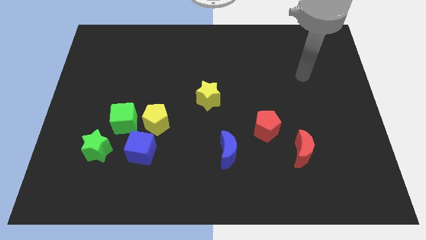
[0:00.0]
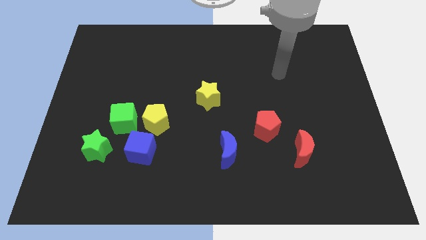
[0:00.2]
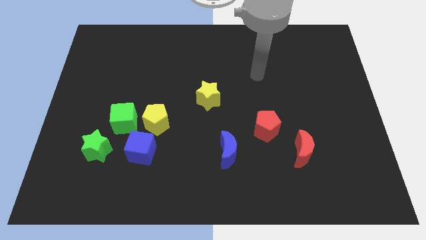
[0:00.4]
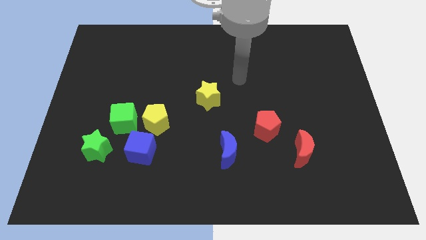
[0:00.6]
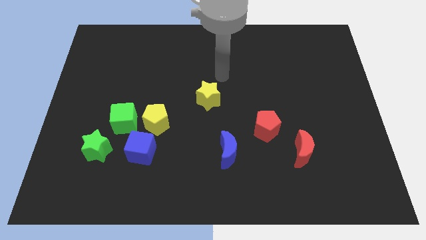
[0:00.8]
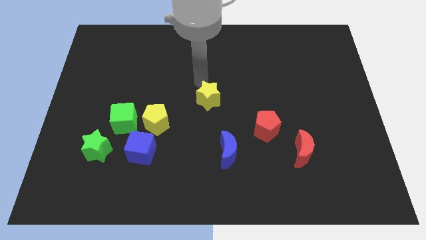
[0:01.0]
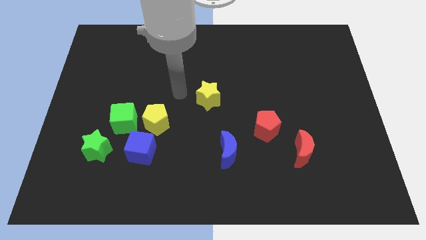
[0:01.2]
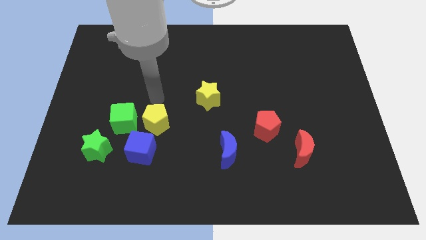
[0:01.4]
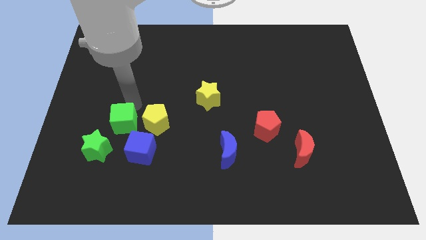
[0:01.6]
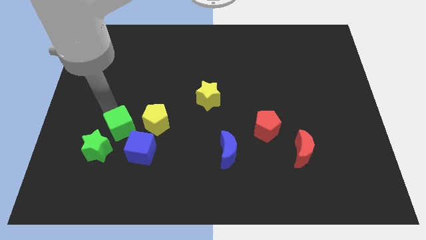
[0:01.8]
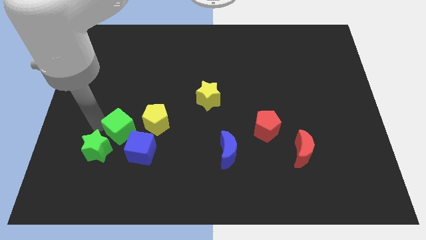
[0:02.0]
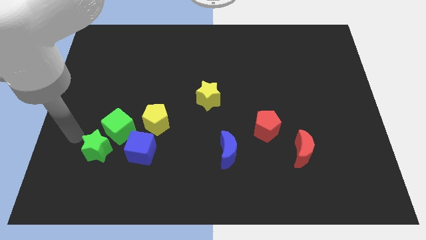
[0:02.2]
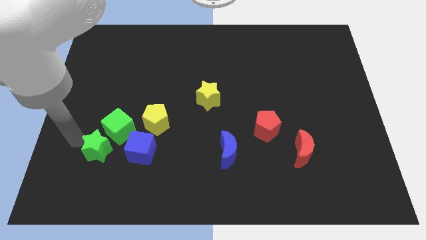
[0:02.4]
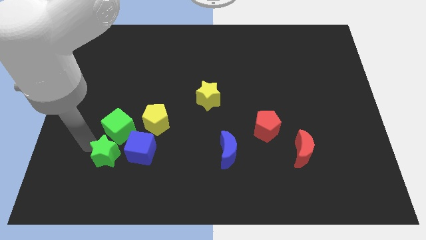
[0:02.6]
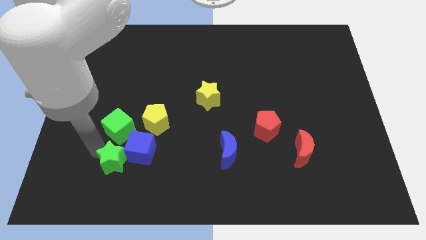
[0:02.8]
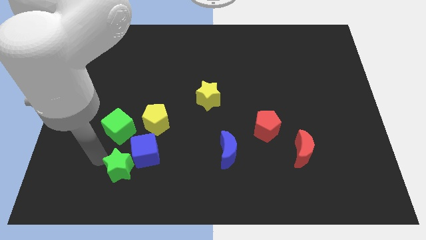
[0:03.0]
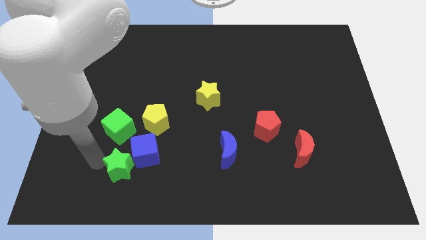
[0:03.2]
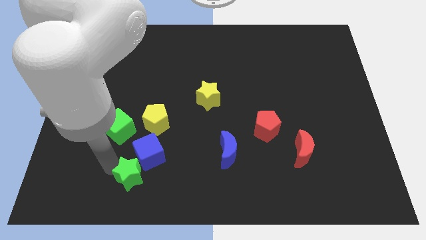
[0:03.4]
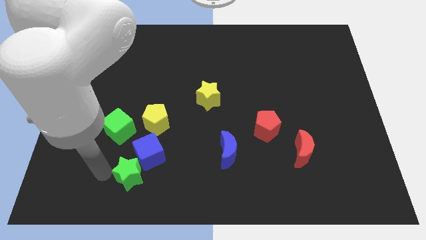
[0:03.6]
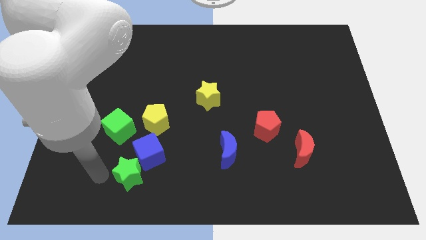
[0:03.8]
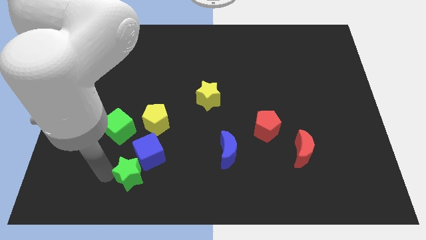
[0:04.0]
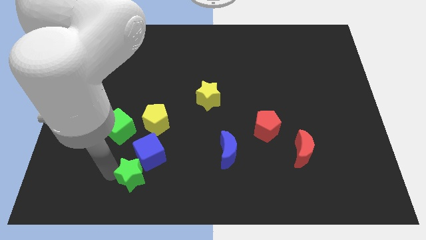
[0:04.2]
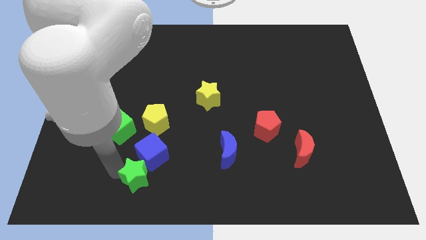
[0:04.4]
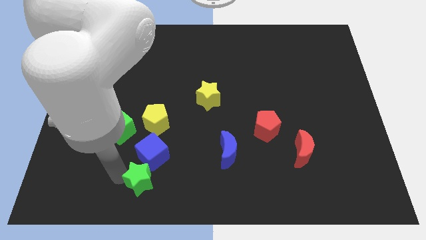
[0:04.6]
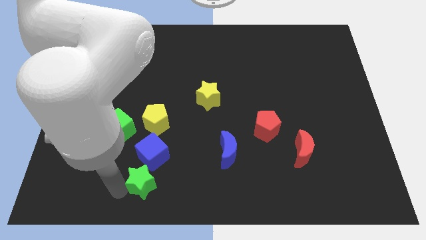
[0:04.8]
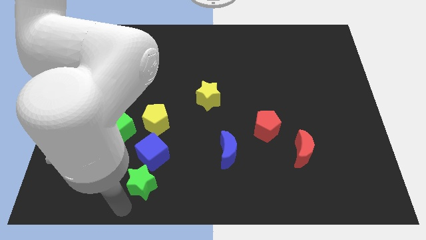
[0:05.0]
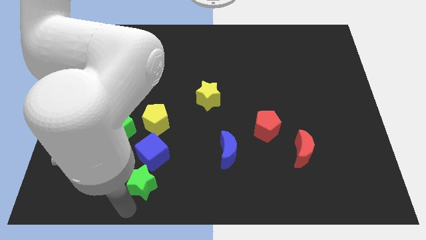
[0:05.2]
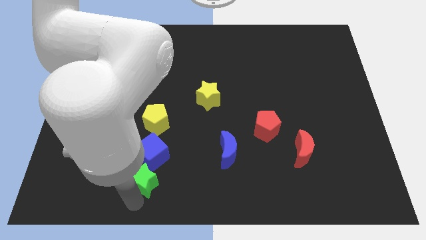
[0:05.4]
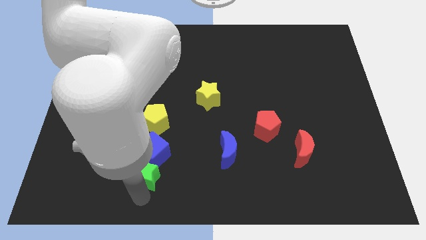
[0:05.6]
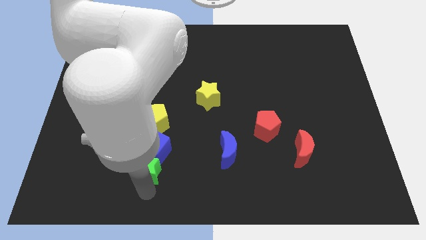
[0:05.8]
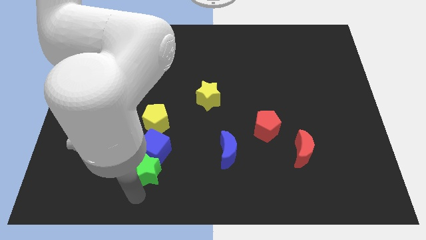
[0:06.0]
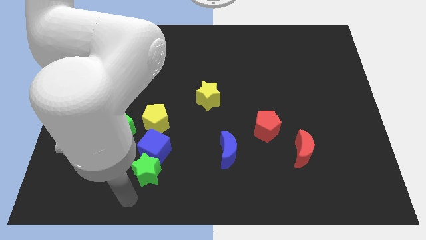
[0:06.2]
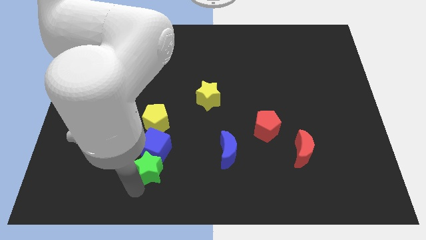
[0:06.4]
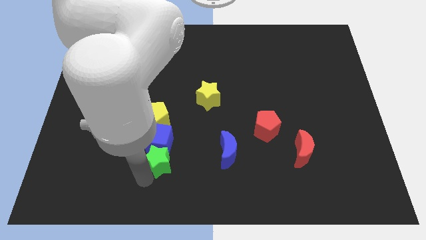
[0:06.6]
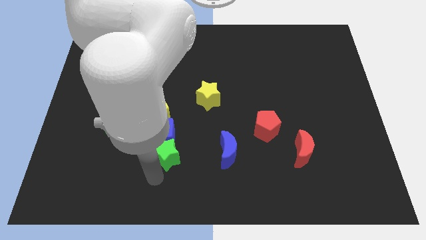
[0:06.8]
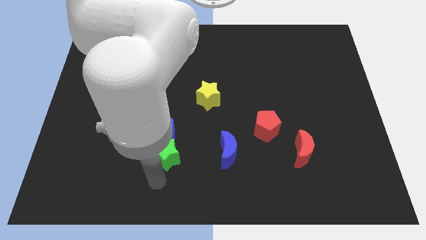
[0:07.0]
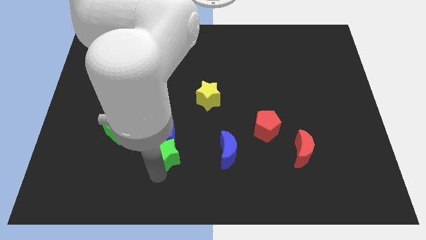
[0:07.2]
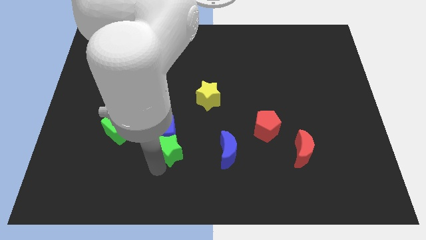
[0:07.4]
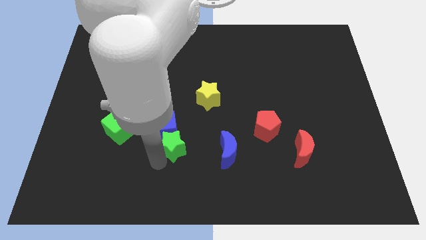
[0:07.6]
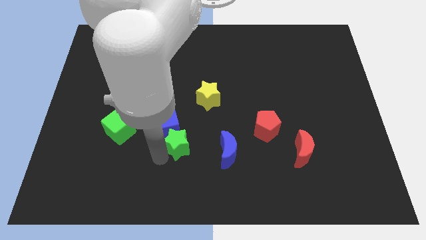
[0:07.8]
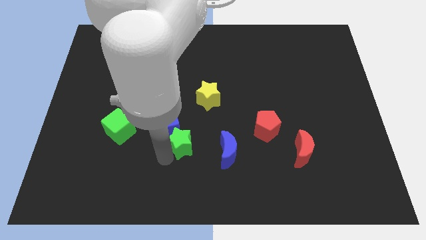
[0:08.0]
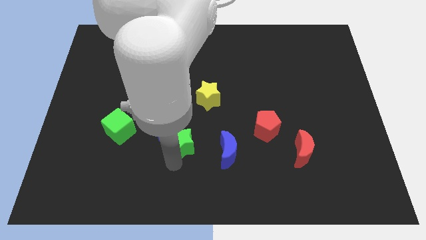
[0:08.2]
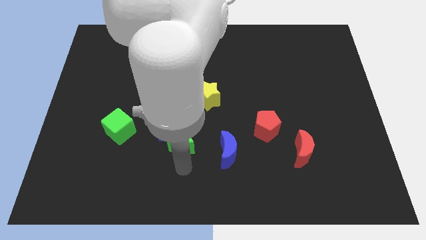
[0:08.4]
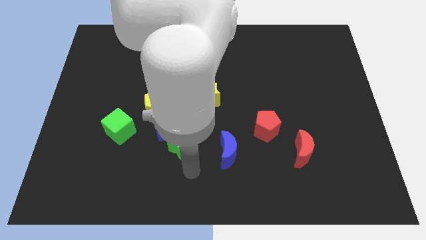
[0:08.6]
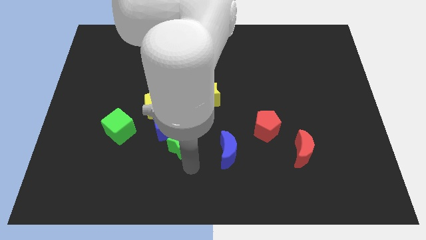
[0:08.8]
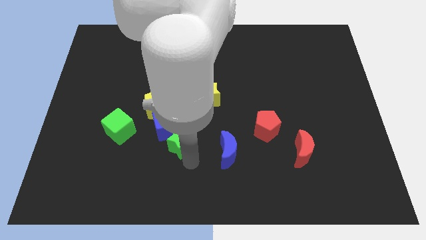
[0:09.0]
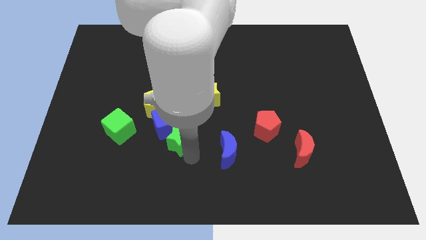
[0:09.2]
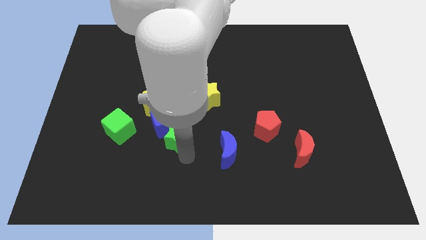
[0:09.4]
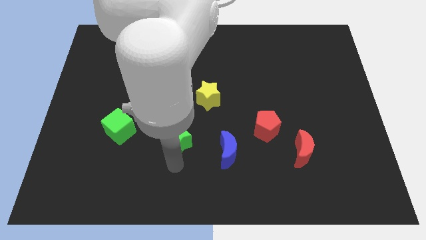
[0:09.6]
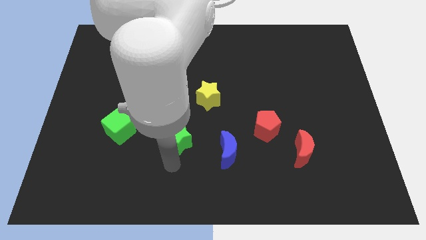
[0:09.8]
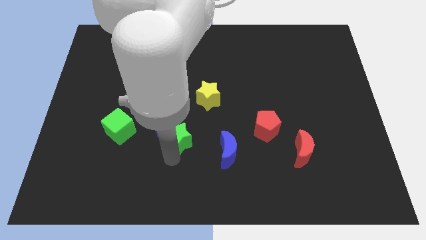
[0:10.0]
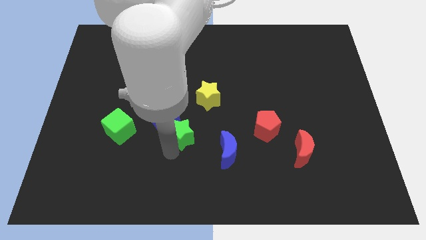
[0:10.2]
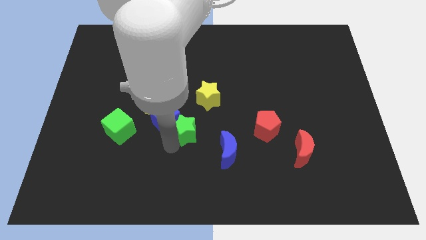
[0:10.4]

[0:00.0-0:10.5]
push the green star diagonally down and to the left of the yellow star

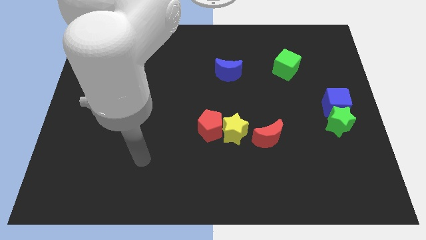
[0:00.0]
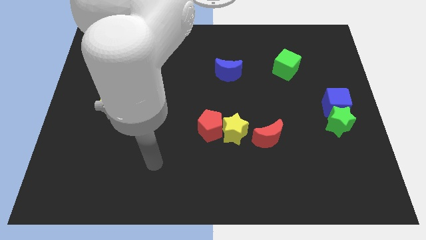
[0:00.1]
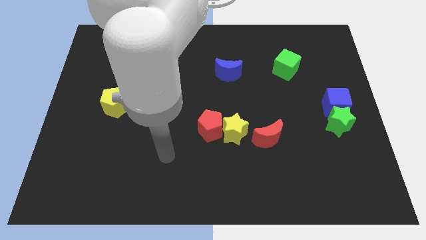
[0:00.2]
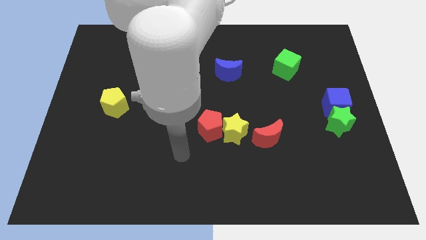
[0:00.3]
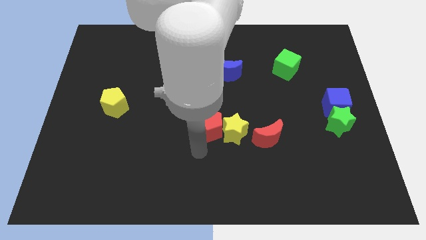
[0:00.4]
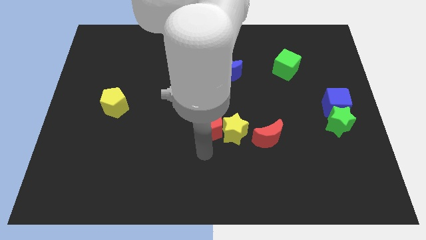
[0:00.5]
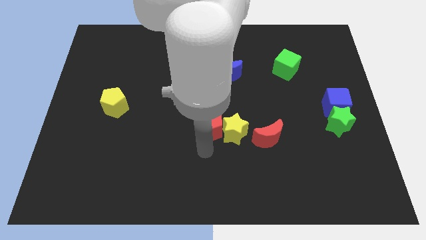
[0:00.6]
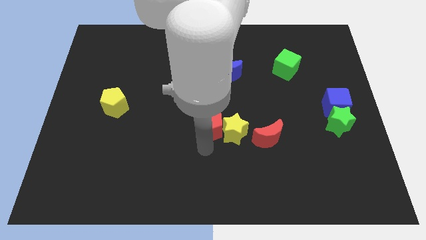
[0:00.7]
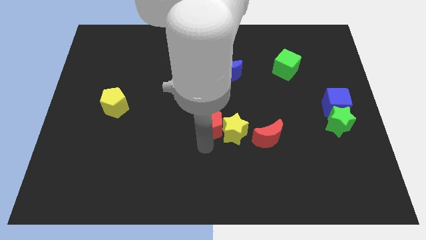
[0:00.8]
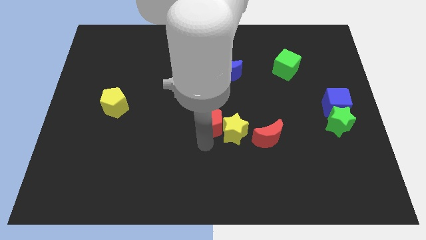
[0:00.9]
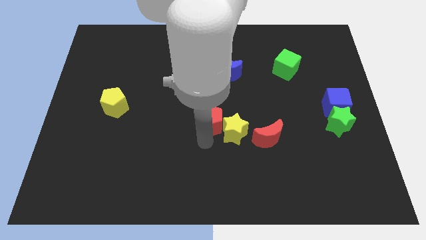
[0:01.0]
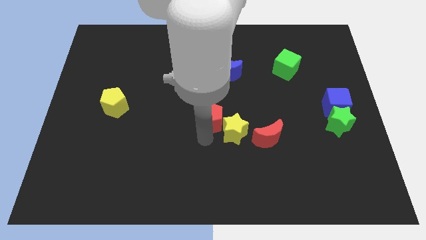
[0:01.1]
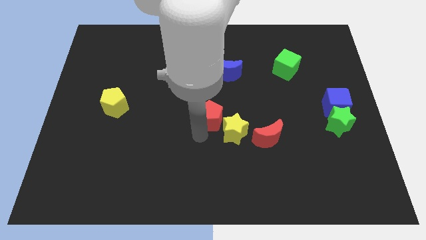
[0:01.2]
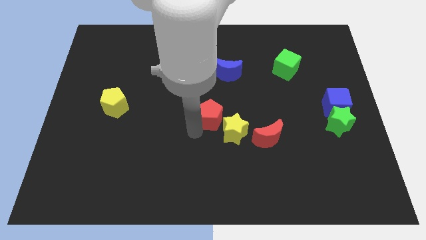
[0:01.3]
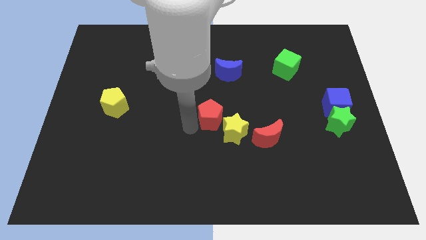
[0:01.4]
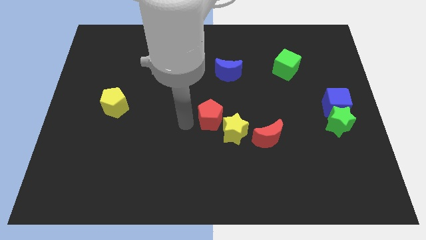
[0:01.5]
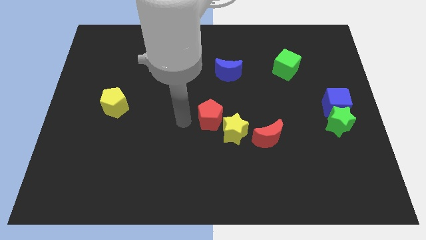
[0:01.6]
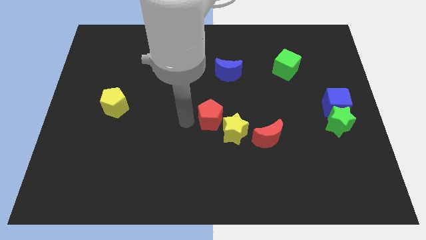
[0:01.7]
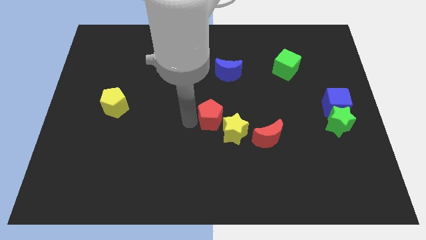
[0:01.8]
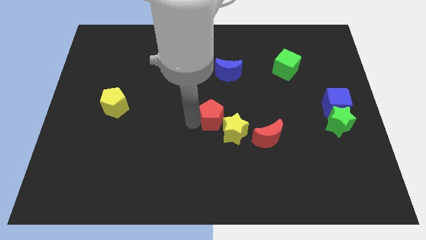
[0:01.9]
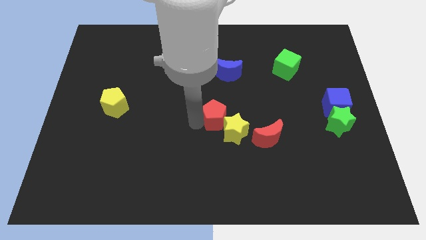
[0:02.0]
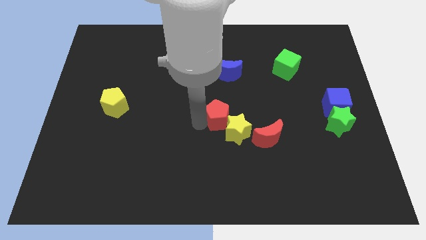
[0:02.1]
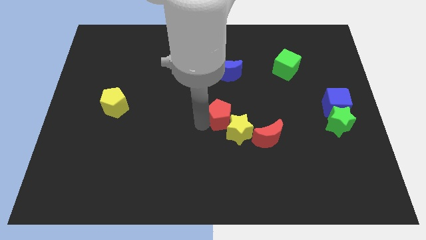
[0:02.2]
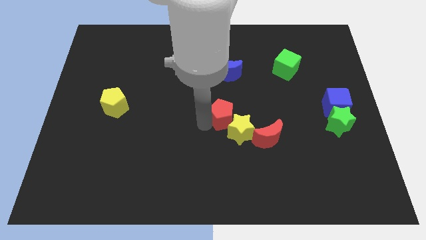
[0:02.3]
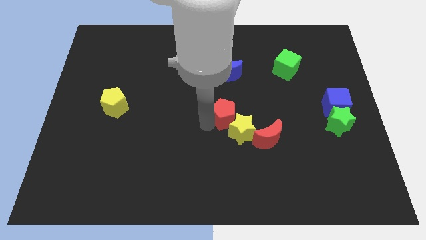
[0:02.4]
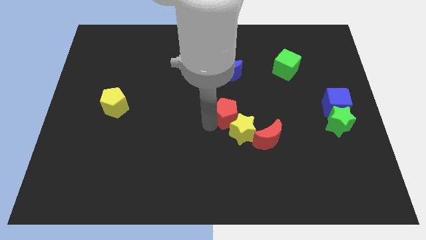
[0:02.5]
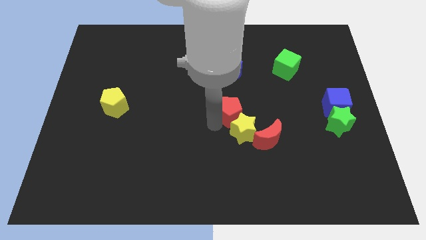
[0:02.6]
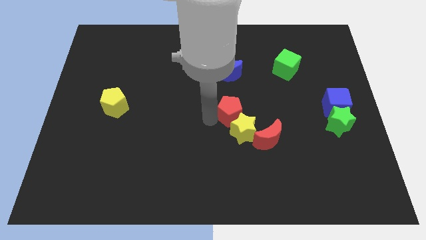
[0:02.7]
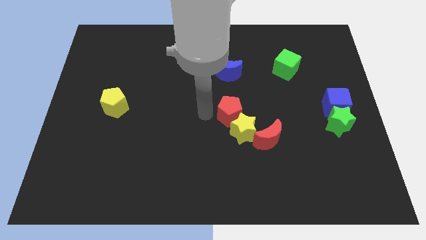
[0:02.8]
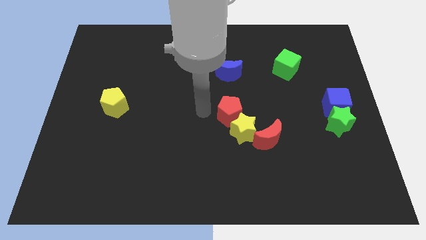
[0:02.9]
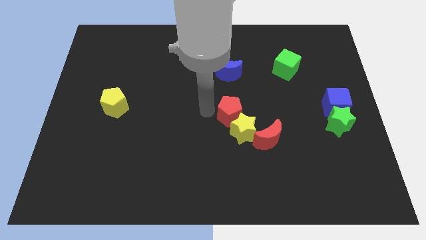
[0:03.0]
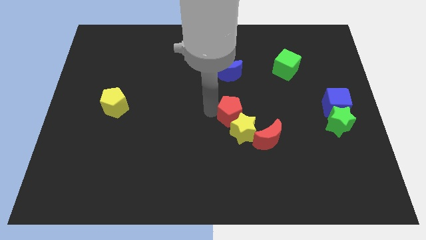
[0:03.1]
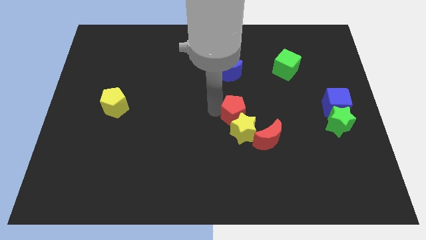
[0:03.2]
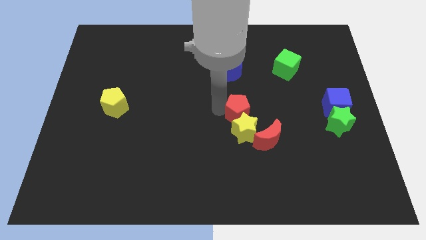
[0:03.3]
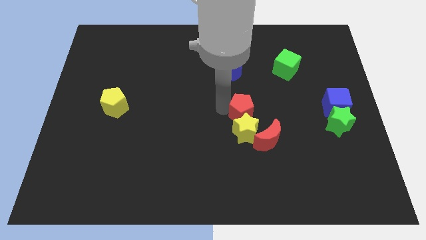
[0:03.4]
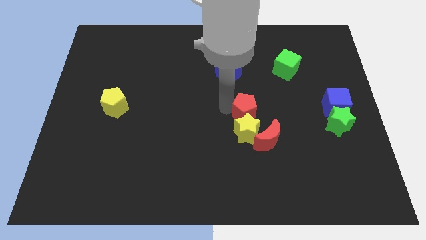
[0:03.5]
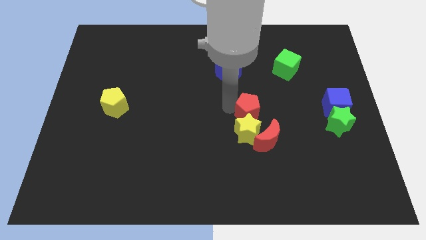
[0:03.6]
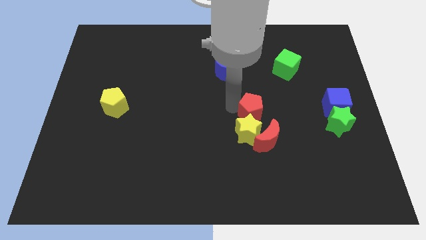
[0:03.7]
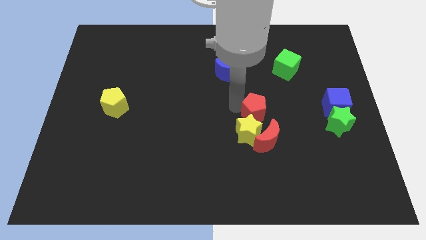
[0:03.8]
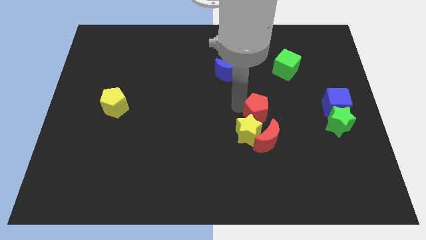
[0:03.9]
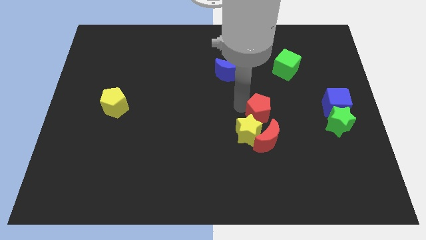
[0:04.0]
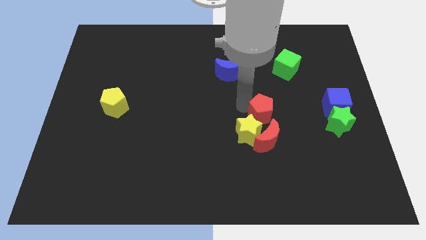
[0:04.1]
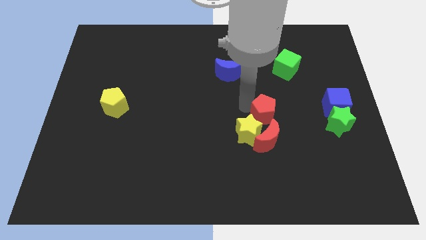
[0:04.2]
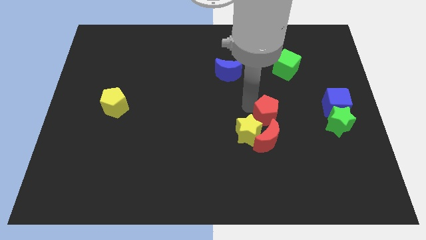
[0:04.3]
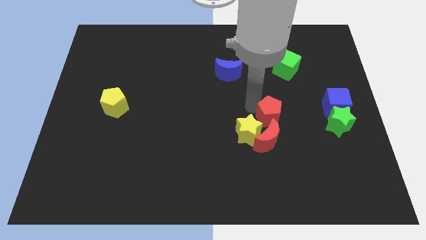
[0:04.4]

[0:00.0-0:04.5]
put the red pentagon to the left of the green star
